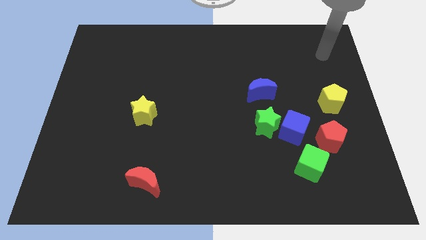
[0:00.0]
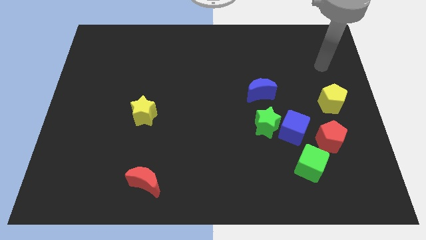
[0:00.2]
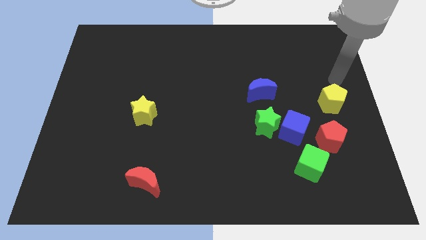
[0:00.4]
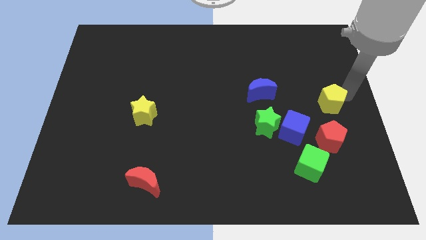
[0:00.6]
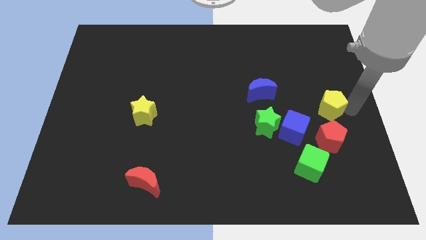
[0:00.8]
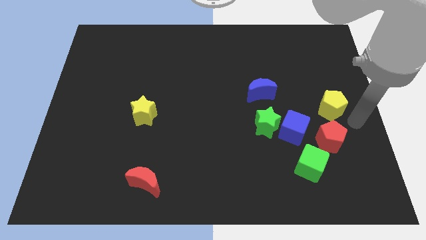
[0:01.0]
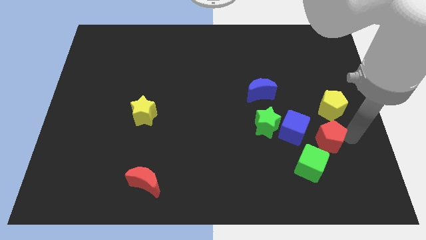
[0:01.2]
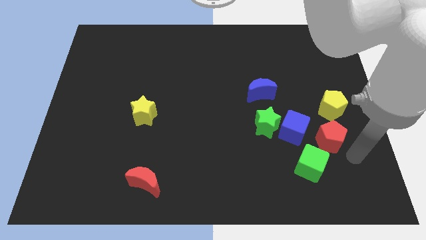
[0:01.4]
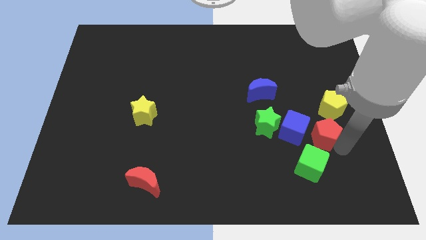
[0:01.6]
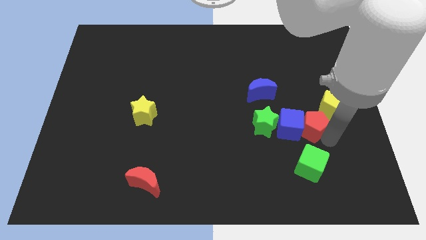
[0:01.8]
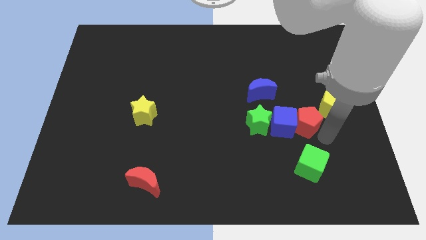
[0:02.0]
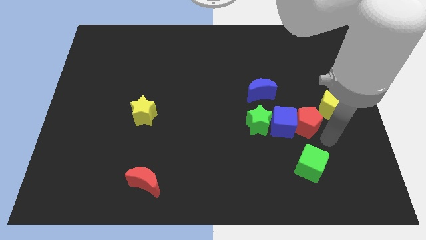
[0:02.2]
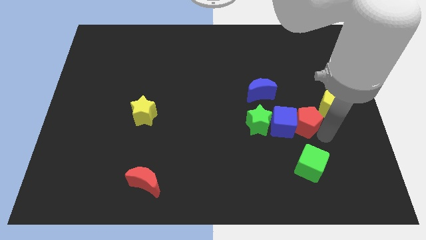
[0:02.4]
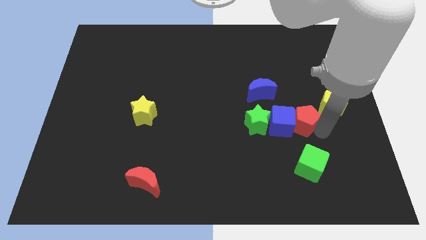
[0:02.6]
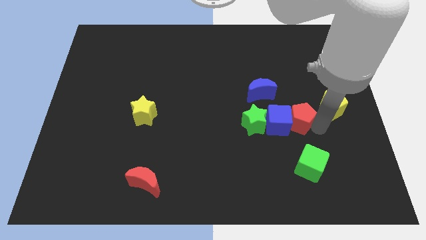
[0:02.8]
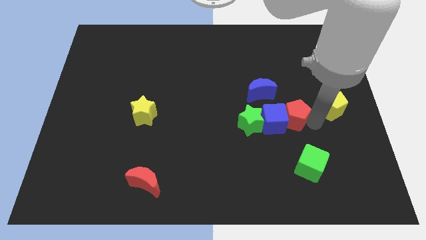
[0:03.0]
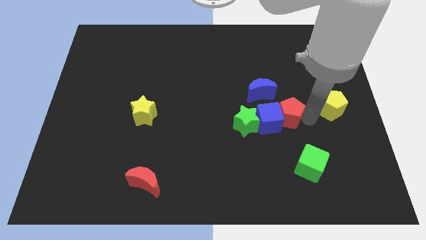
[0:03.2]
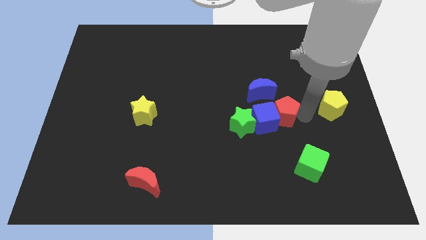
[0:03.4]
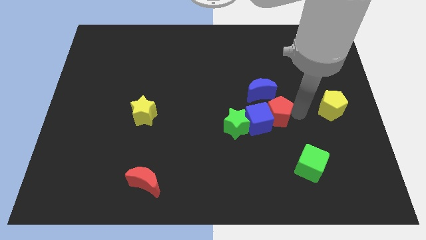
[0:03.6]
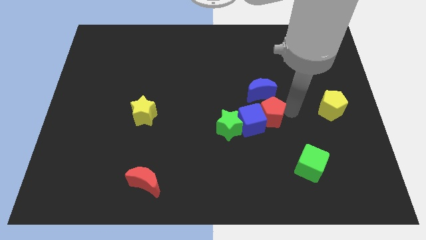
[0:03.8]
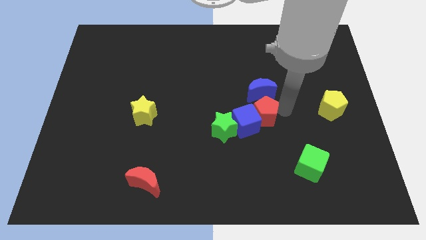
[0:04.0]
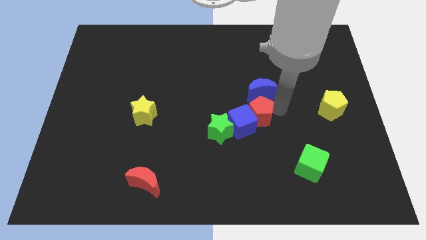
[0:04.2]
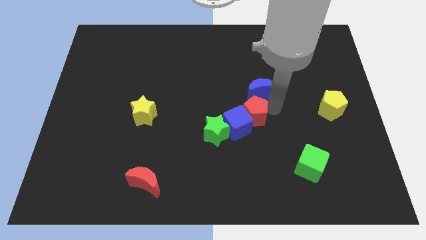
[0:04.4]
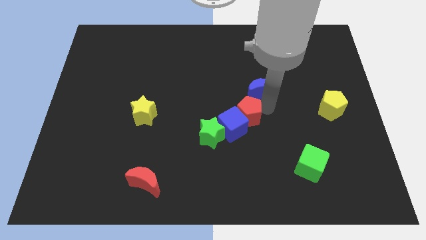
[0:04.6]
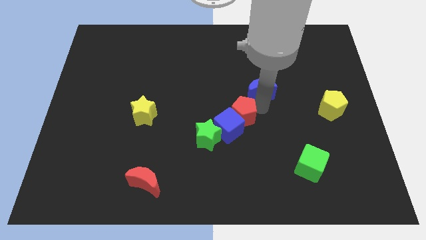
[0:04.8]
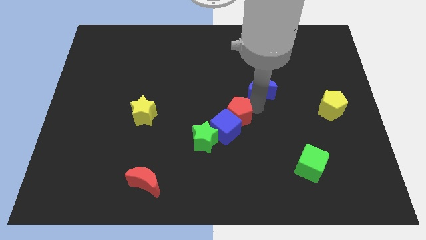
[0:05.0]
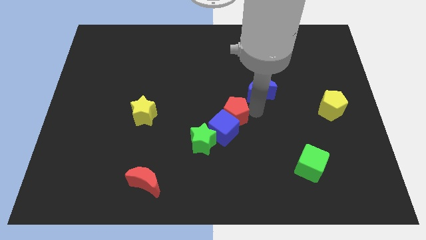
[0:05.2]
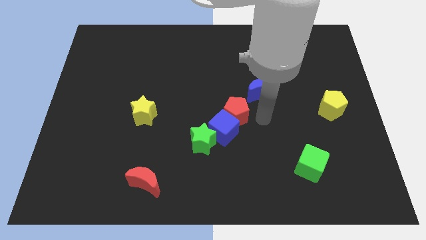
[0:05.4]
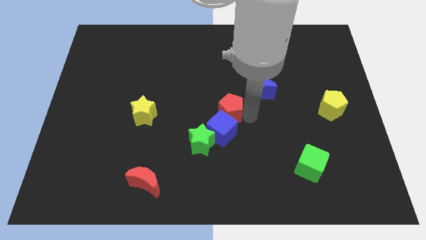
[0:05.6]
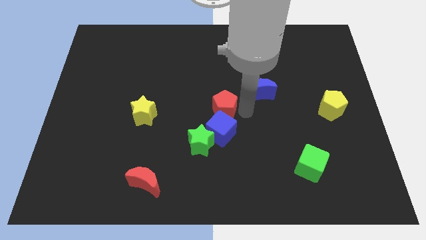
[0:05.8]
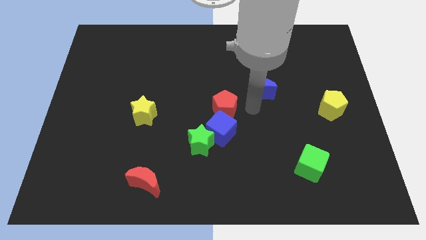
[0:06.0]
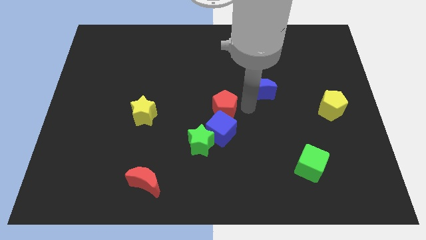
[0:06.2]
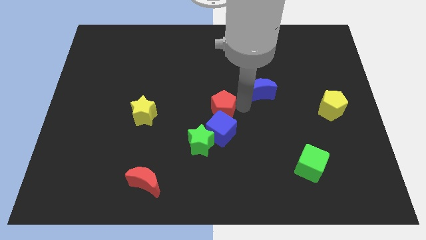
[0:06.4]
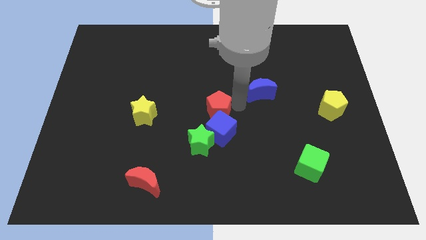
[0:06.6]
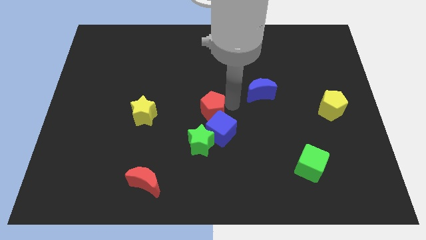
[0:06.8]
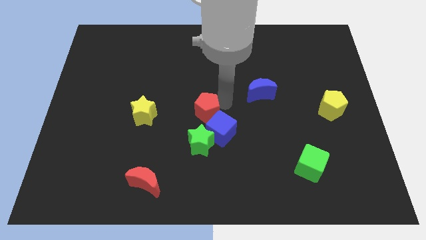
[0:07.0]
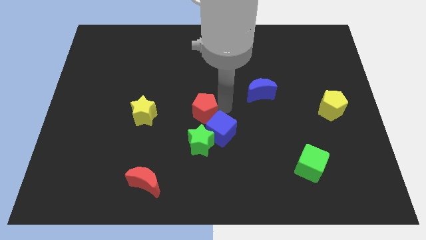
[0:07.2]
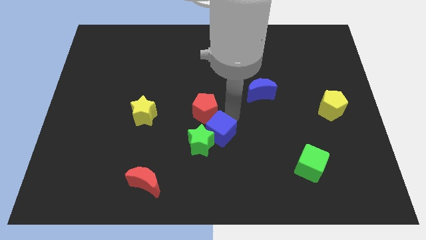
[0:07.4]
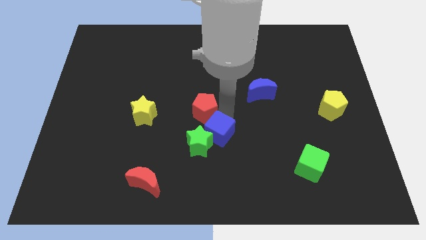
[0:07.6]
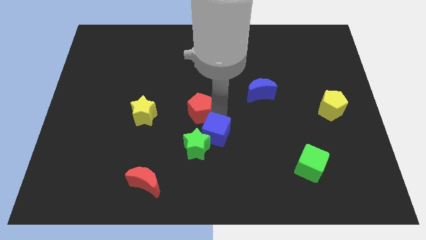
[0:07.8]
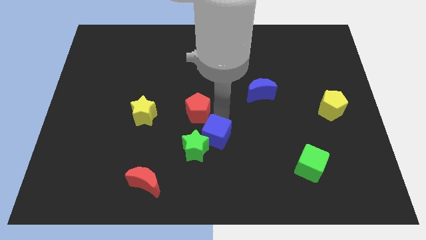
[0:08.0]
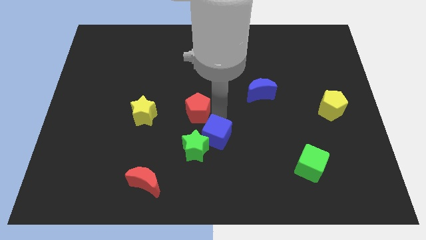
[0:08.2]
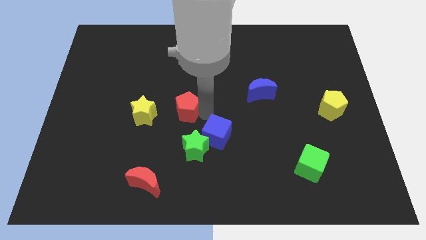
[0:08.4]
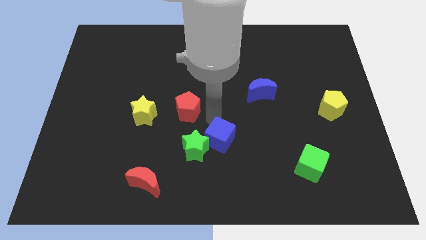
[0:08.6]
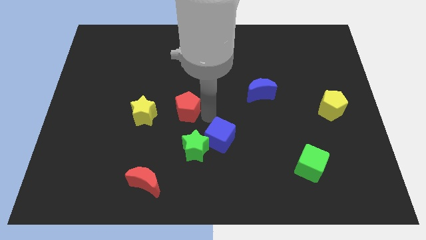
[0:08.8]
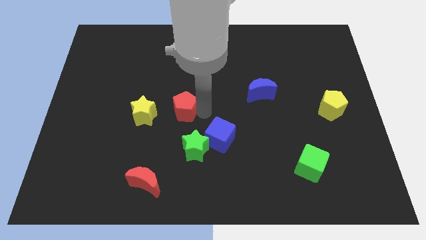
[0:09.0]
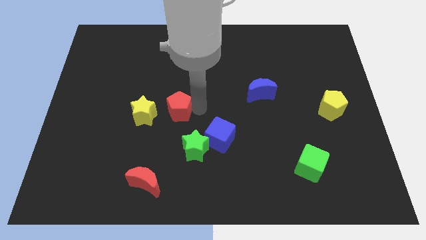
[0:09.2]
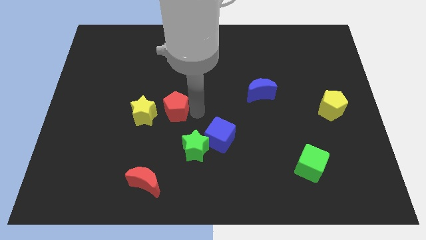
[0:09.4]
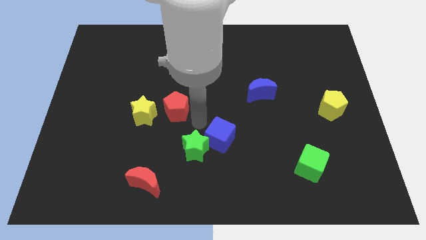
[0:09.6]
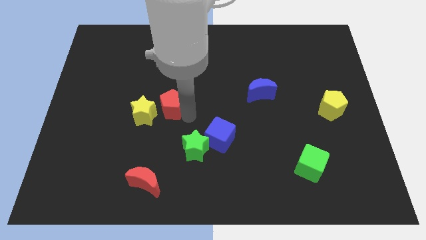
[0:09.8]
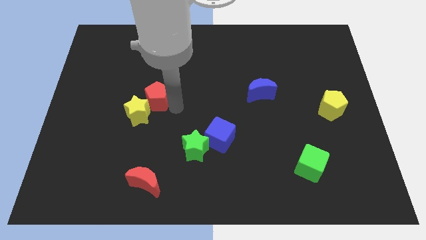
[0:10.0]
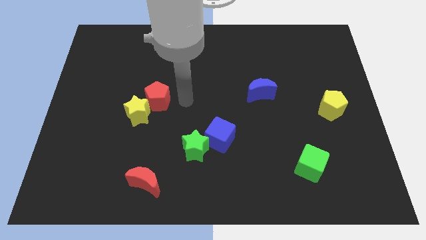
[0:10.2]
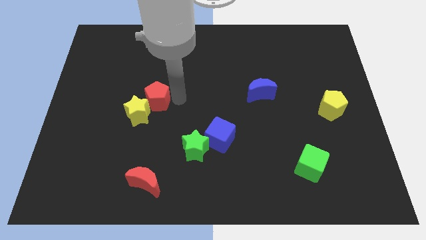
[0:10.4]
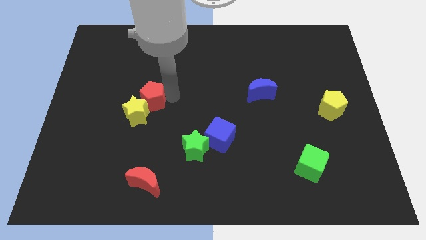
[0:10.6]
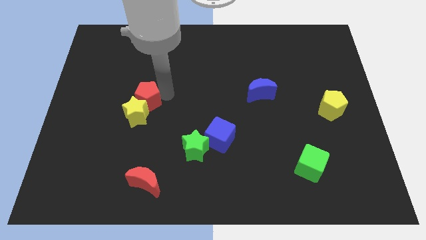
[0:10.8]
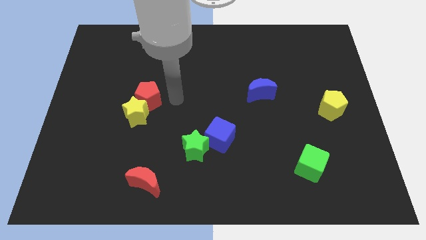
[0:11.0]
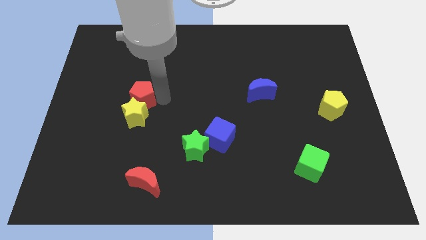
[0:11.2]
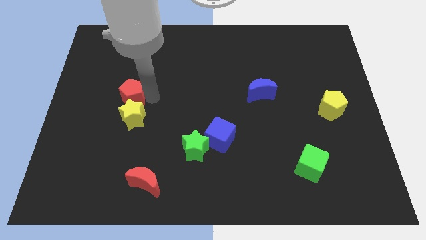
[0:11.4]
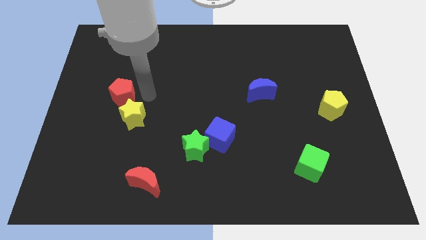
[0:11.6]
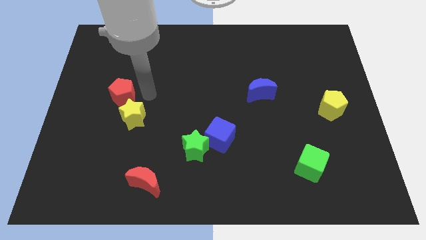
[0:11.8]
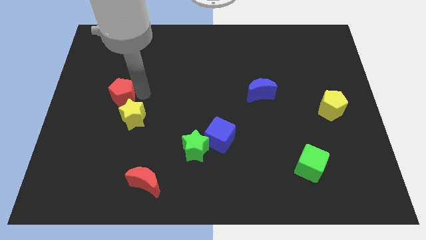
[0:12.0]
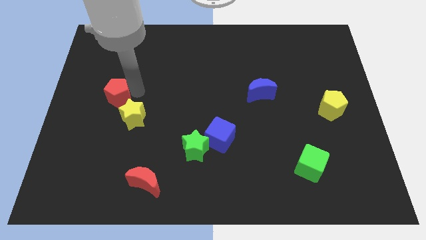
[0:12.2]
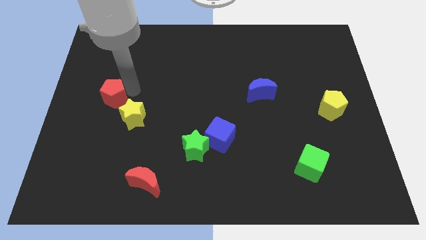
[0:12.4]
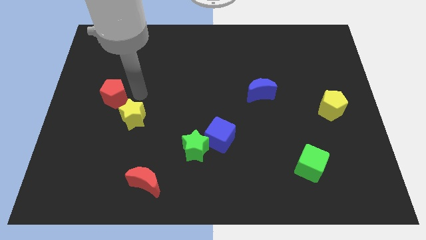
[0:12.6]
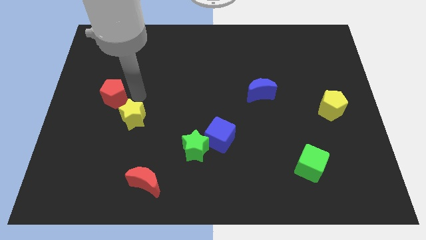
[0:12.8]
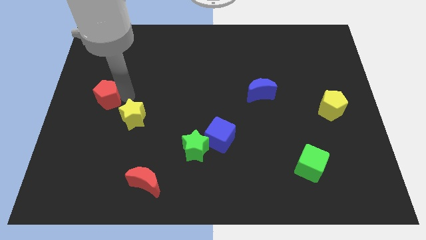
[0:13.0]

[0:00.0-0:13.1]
move the red pentagon to the center left

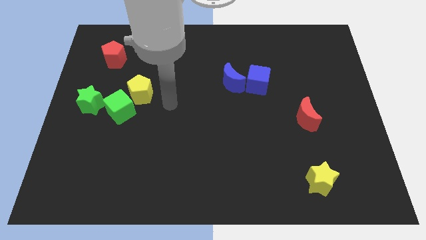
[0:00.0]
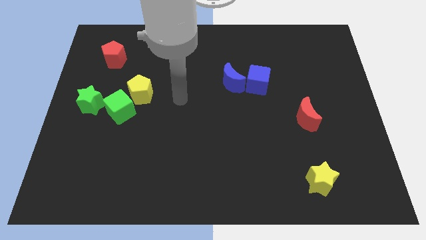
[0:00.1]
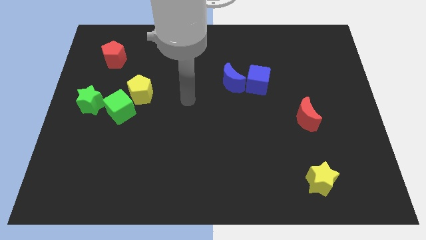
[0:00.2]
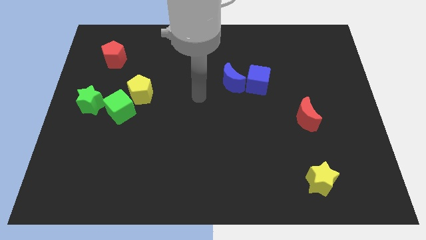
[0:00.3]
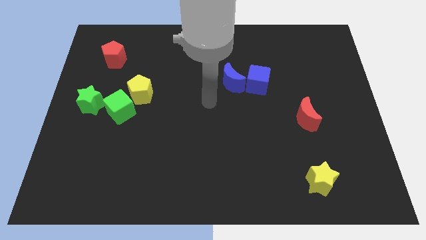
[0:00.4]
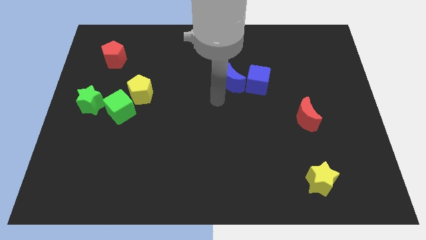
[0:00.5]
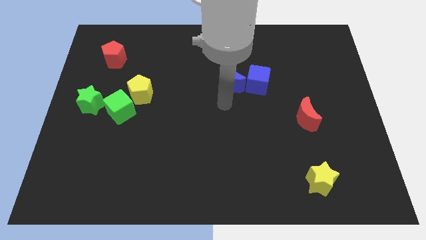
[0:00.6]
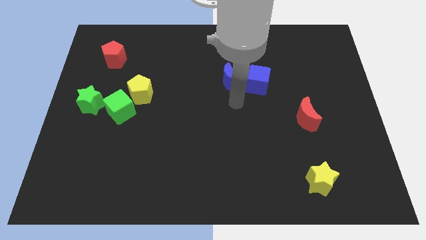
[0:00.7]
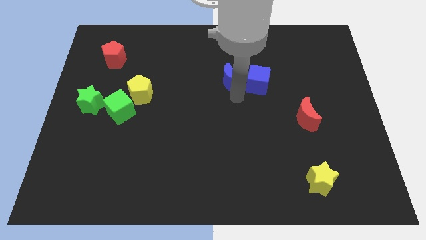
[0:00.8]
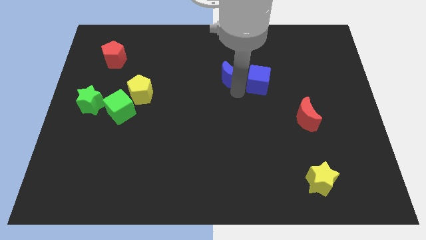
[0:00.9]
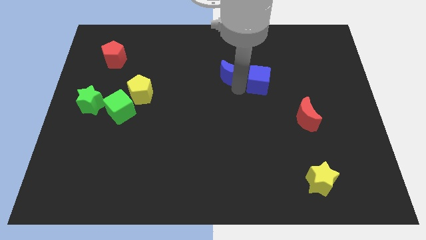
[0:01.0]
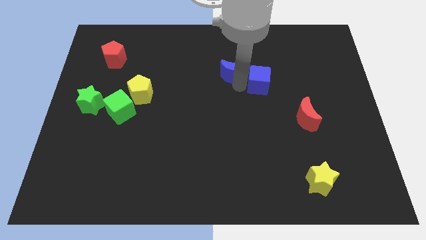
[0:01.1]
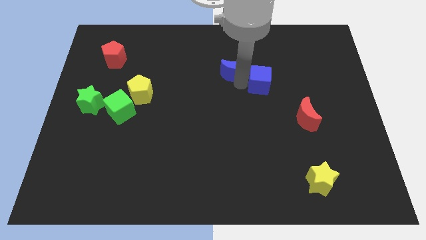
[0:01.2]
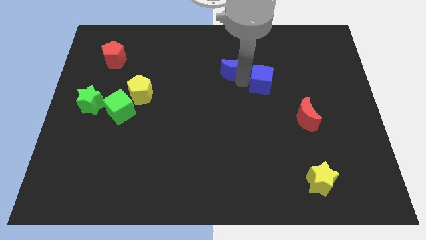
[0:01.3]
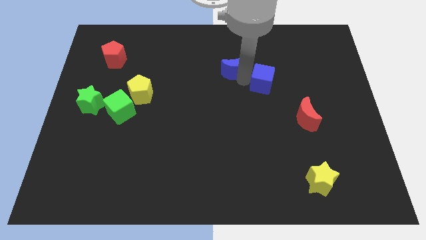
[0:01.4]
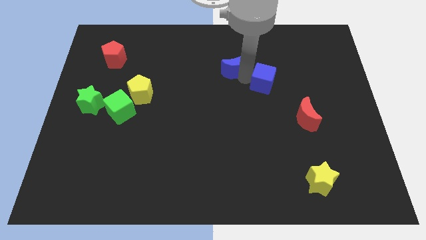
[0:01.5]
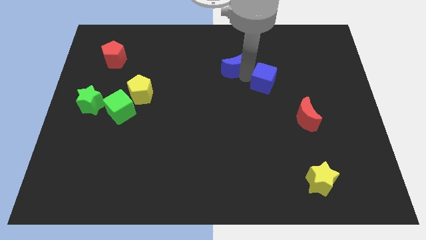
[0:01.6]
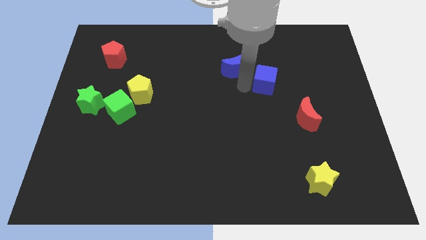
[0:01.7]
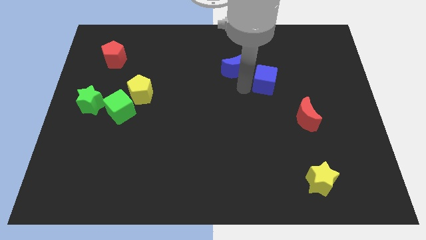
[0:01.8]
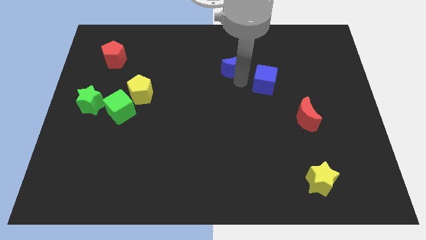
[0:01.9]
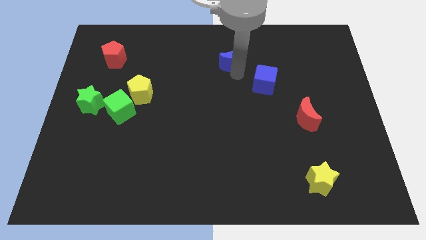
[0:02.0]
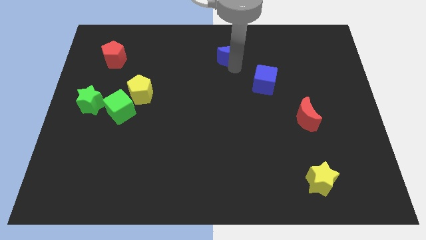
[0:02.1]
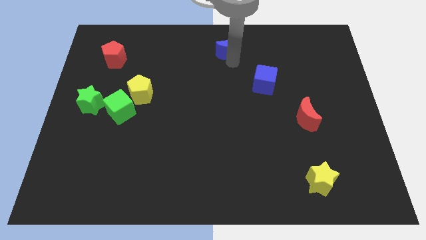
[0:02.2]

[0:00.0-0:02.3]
move the blue moon to the top
